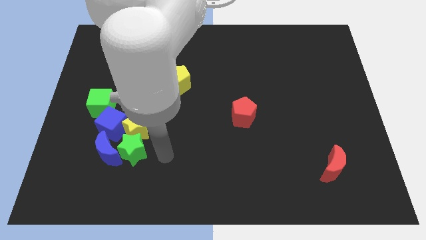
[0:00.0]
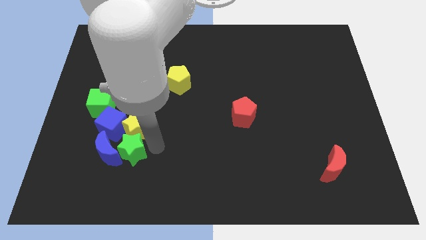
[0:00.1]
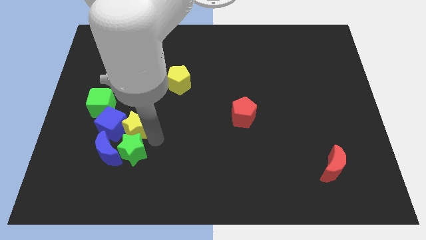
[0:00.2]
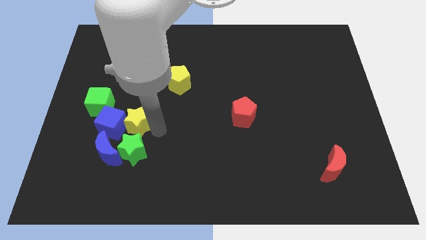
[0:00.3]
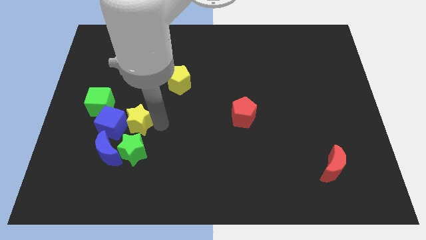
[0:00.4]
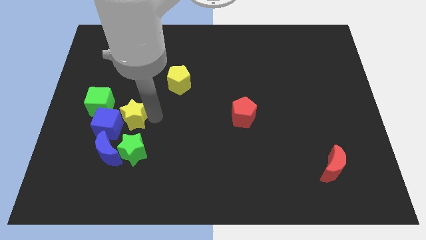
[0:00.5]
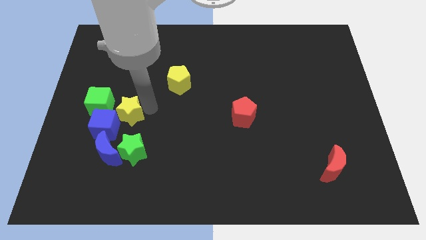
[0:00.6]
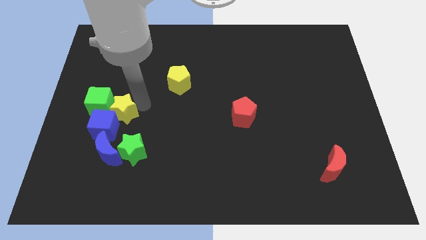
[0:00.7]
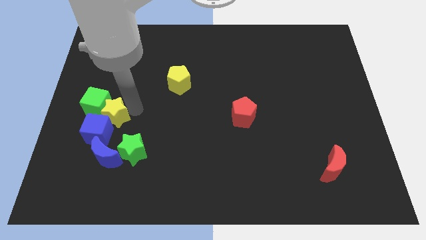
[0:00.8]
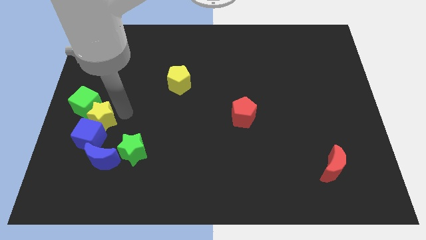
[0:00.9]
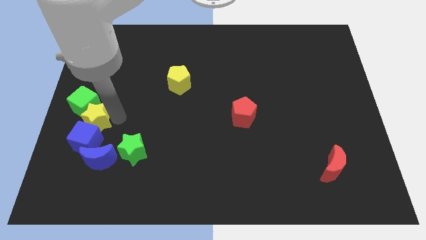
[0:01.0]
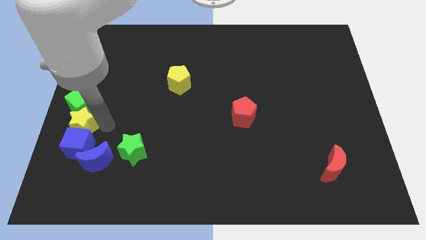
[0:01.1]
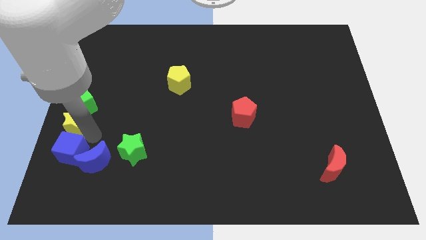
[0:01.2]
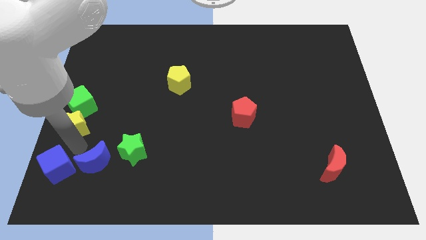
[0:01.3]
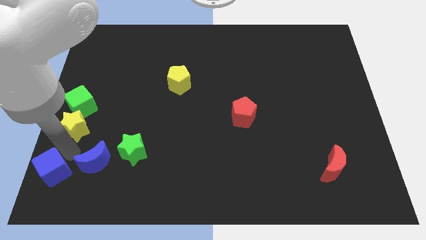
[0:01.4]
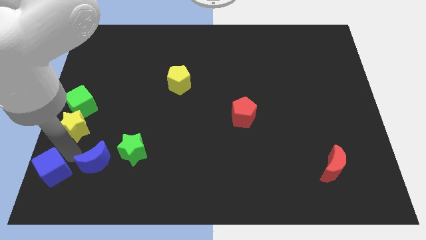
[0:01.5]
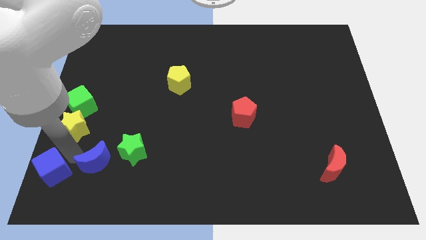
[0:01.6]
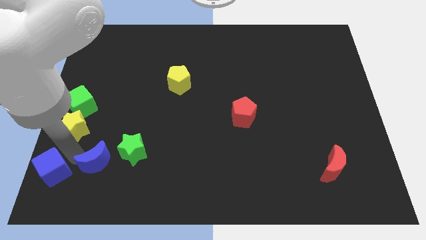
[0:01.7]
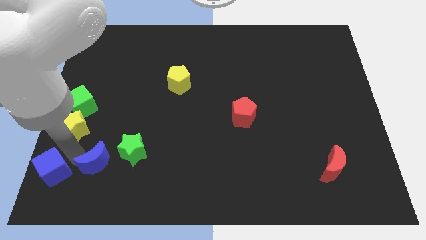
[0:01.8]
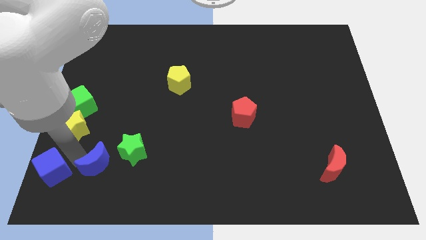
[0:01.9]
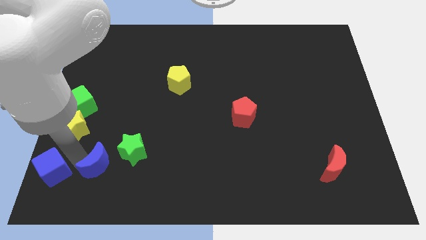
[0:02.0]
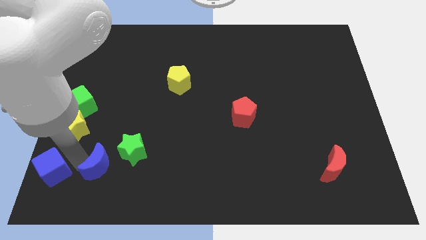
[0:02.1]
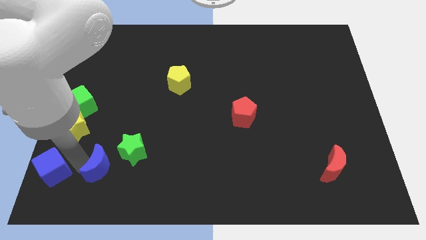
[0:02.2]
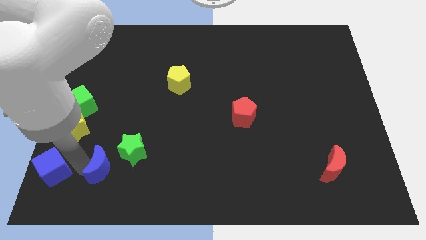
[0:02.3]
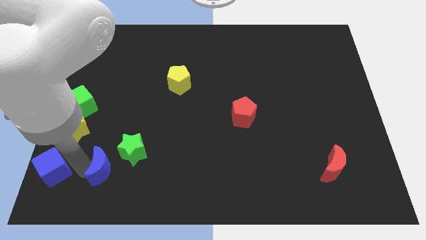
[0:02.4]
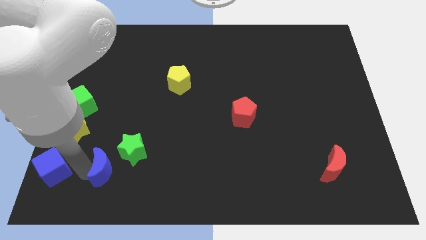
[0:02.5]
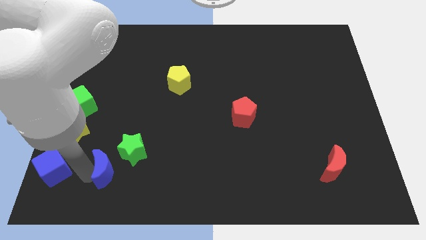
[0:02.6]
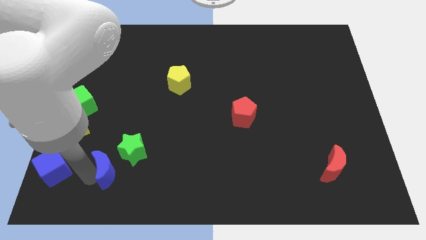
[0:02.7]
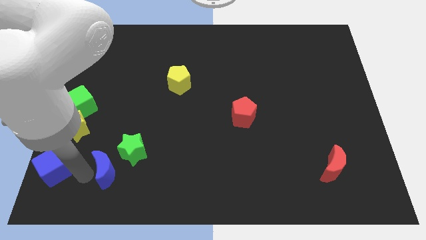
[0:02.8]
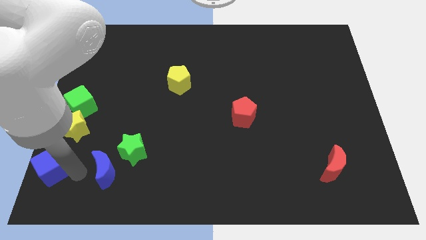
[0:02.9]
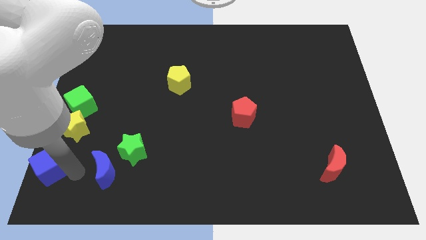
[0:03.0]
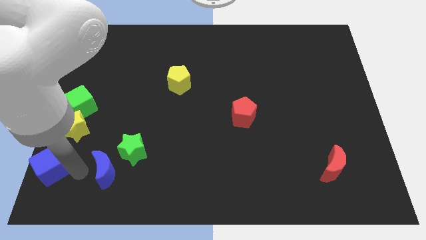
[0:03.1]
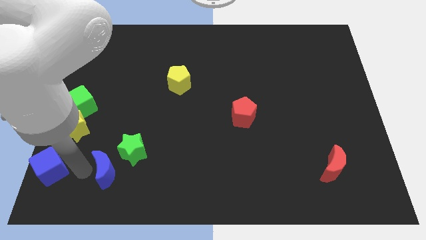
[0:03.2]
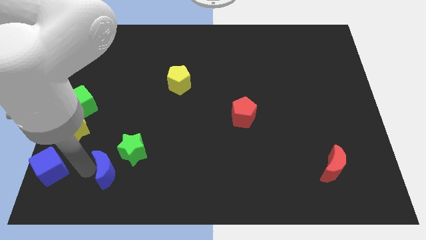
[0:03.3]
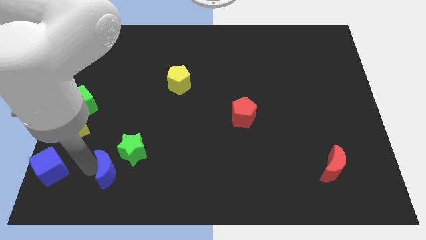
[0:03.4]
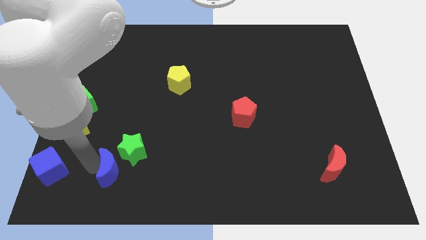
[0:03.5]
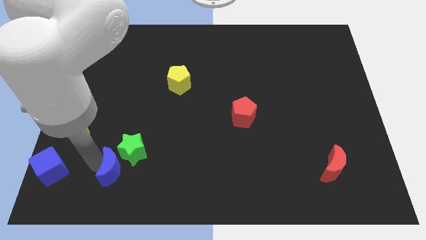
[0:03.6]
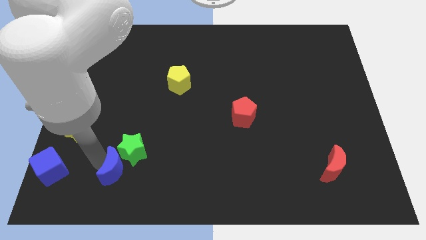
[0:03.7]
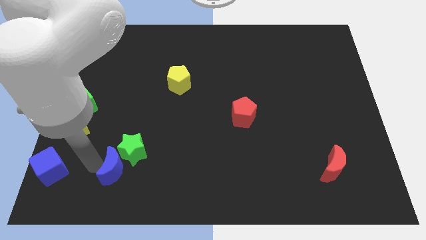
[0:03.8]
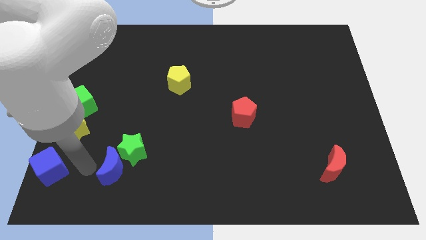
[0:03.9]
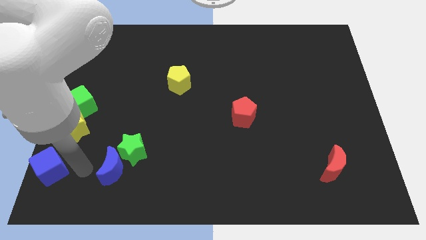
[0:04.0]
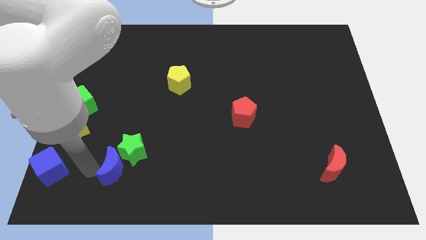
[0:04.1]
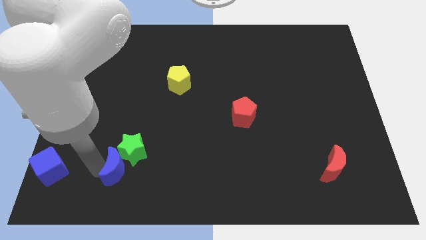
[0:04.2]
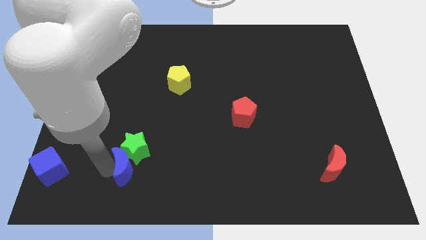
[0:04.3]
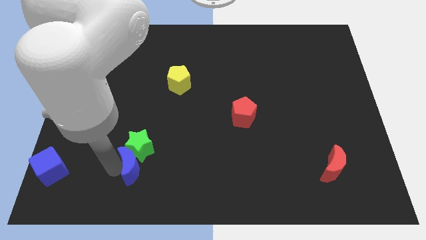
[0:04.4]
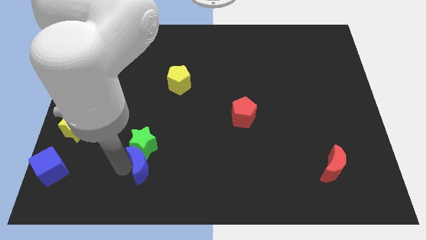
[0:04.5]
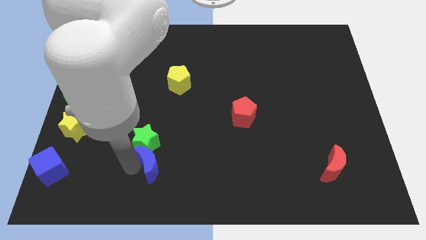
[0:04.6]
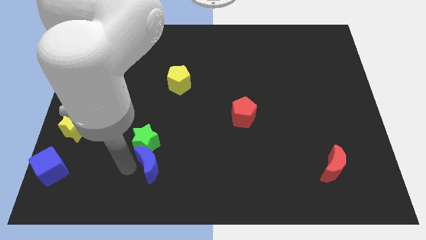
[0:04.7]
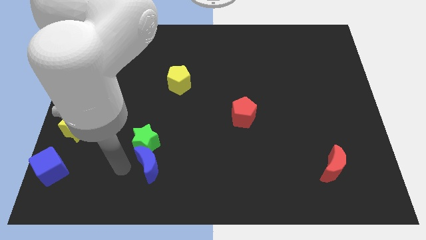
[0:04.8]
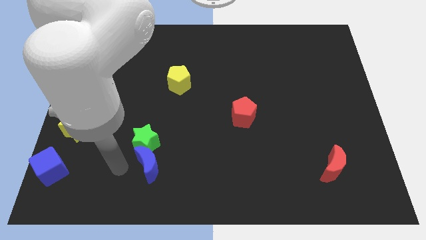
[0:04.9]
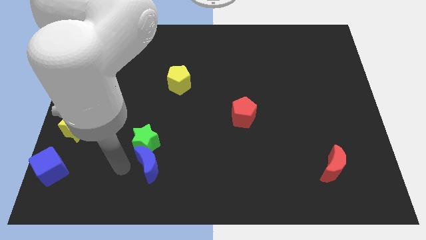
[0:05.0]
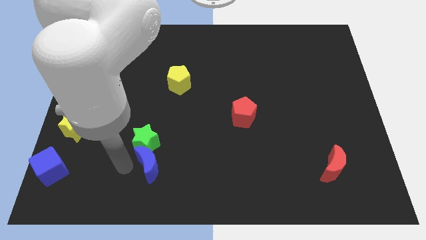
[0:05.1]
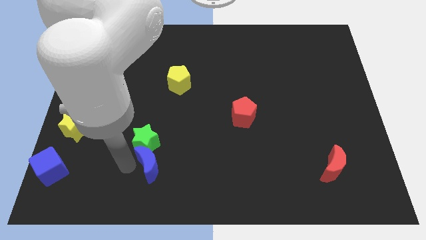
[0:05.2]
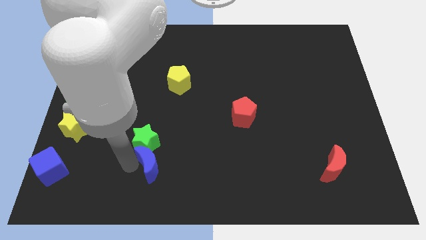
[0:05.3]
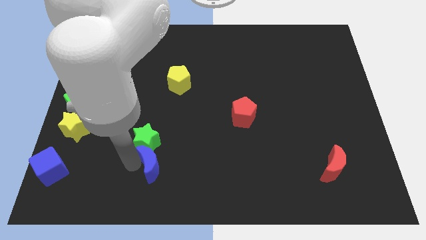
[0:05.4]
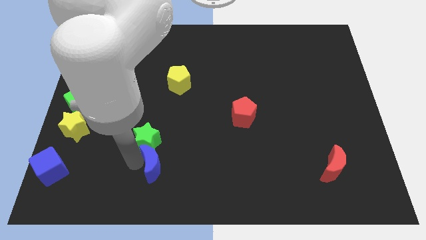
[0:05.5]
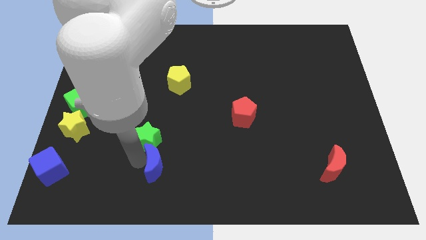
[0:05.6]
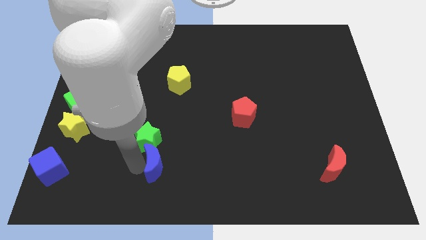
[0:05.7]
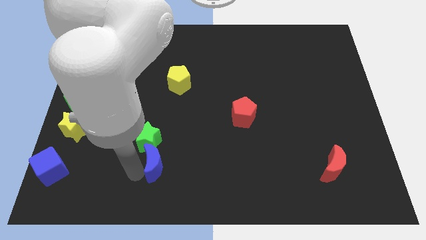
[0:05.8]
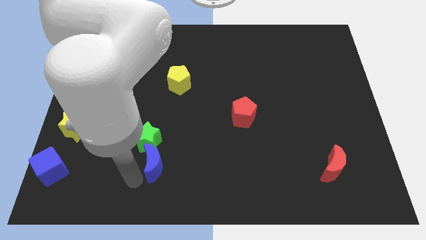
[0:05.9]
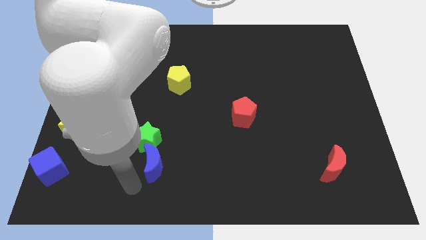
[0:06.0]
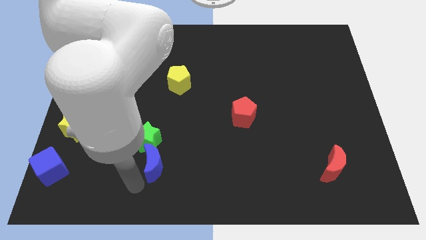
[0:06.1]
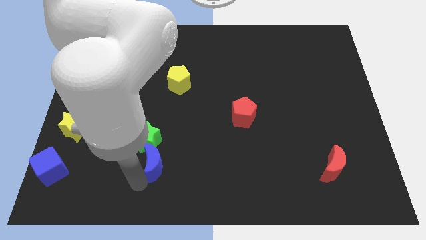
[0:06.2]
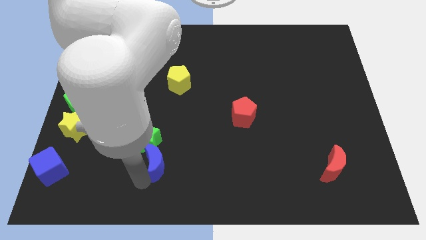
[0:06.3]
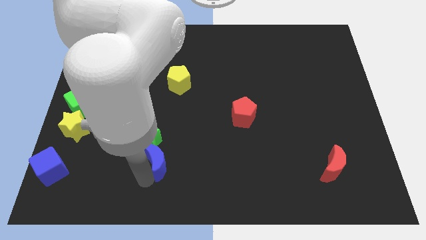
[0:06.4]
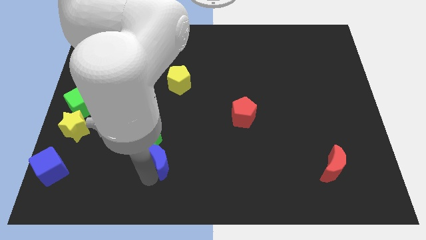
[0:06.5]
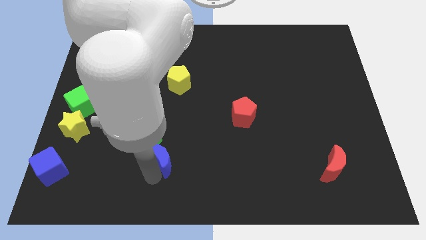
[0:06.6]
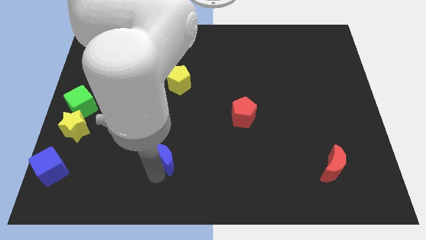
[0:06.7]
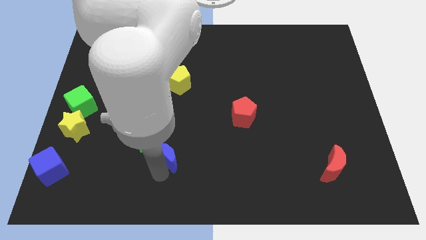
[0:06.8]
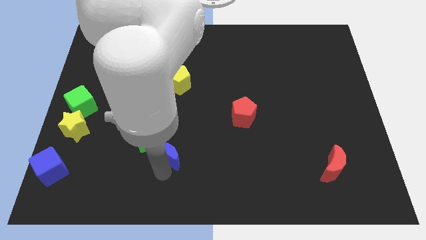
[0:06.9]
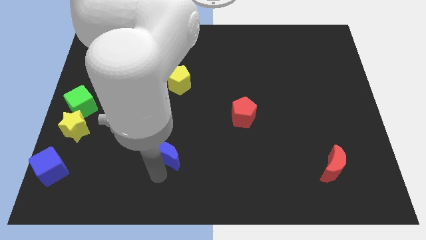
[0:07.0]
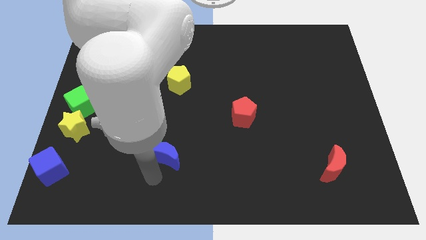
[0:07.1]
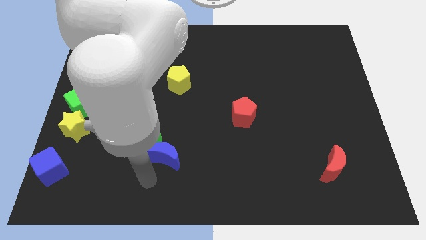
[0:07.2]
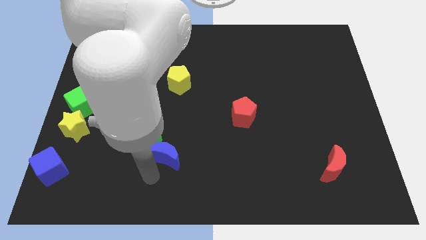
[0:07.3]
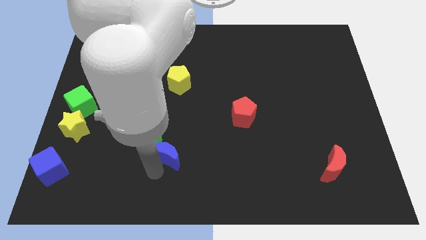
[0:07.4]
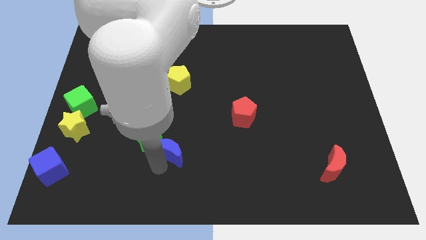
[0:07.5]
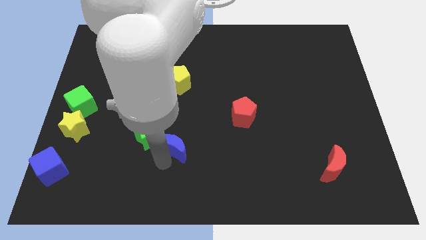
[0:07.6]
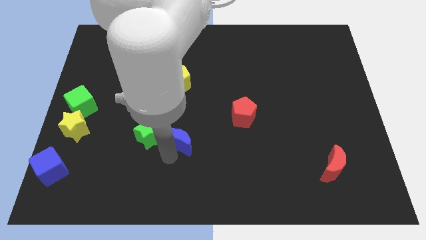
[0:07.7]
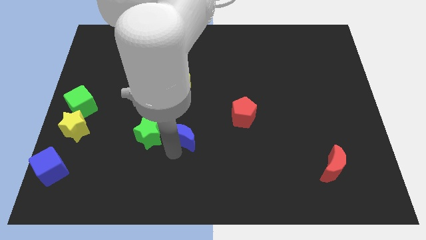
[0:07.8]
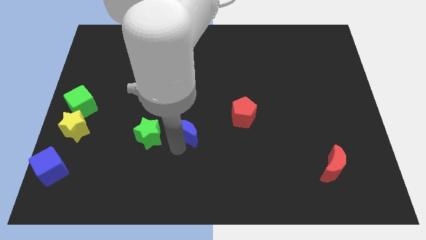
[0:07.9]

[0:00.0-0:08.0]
put the blue moon to the center

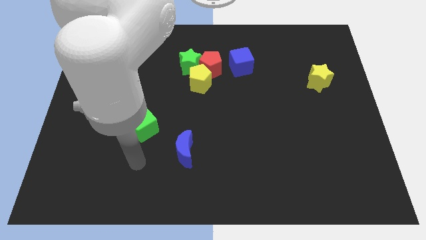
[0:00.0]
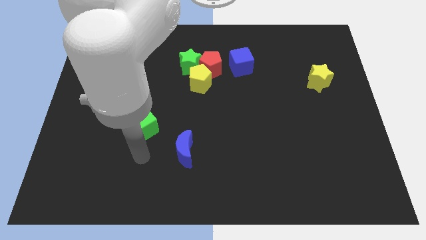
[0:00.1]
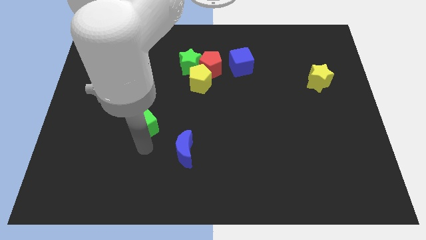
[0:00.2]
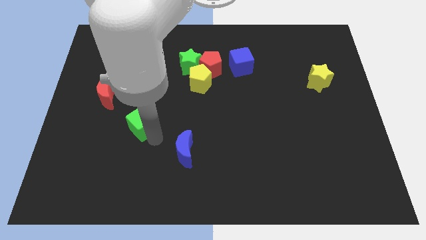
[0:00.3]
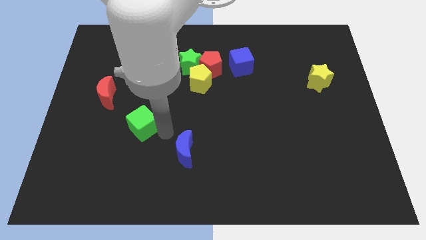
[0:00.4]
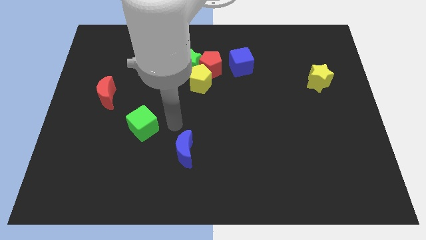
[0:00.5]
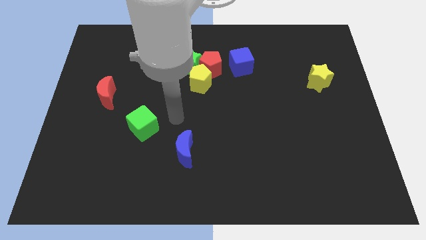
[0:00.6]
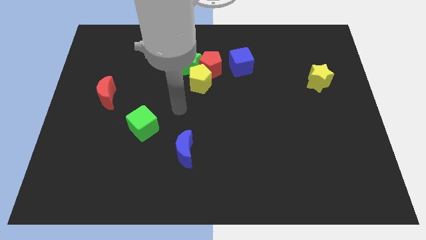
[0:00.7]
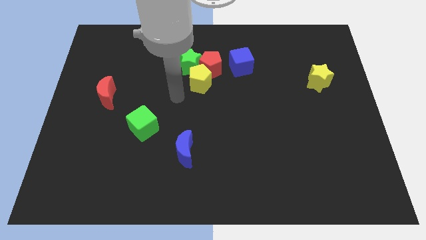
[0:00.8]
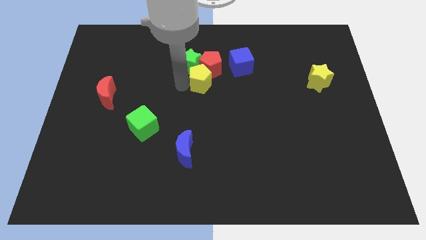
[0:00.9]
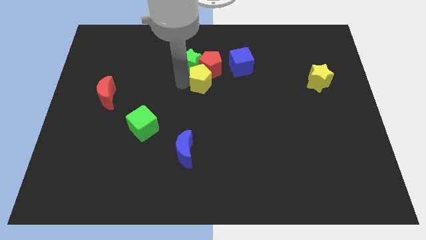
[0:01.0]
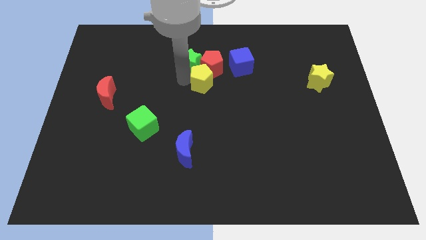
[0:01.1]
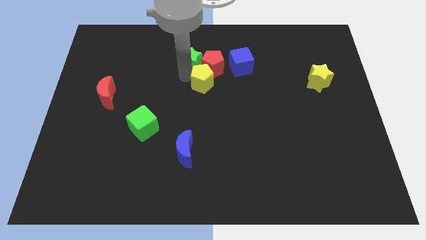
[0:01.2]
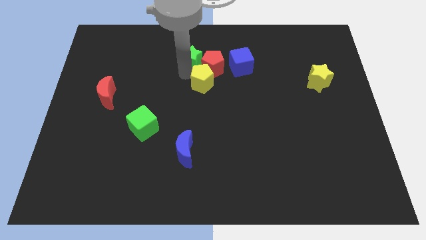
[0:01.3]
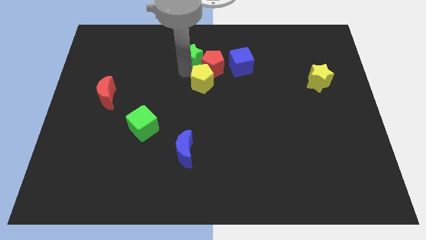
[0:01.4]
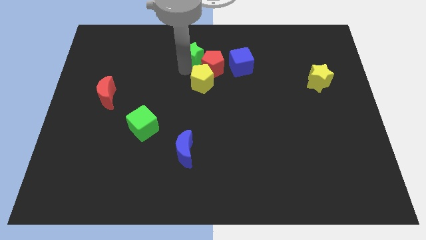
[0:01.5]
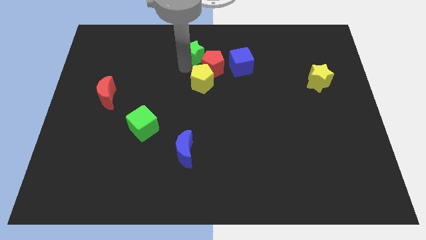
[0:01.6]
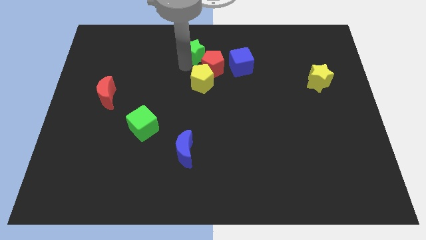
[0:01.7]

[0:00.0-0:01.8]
slide the green star to the top
